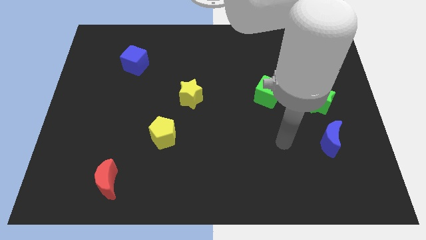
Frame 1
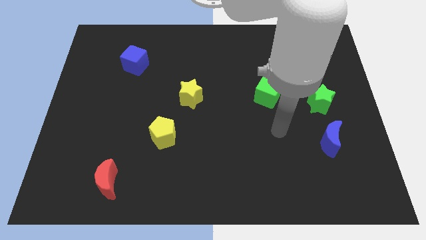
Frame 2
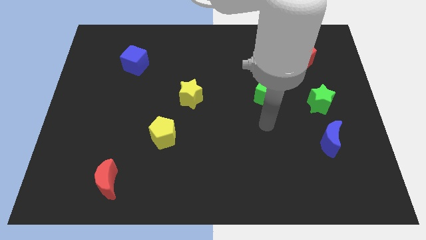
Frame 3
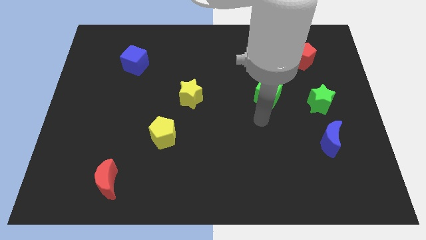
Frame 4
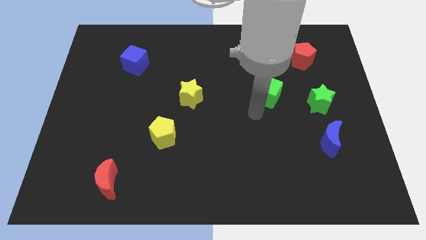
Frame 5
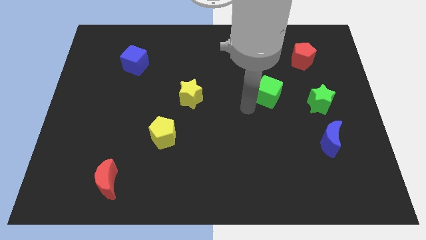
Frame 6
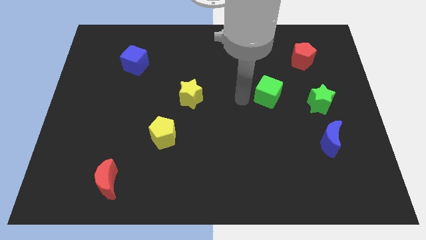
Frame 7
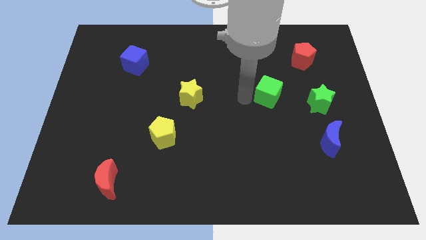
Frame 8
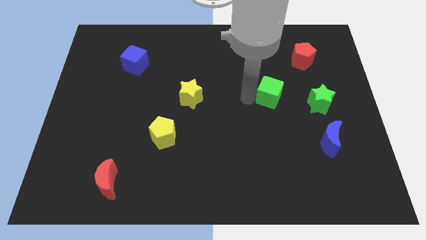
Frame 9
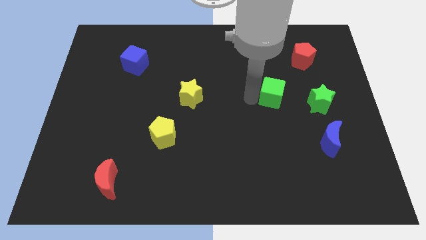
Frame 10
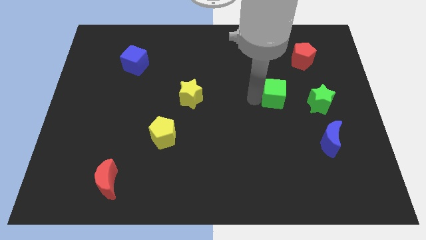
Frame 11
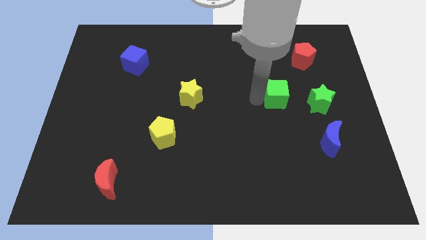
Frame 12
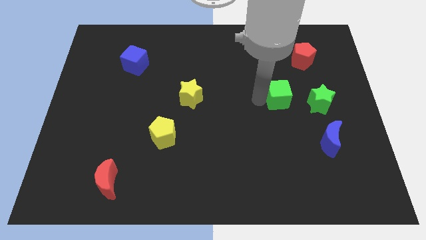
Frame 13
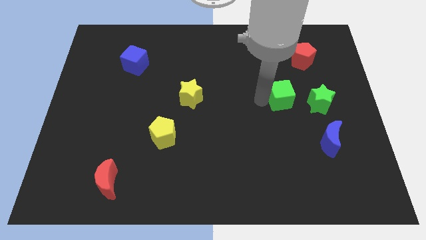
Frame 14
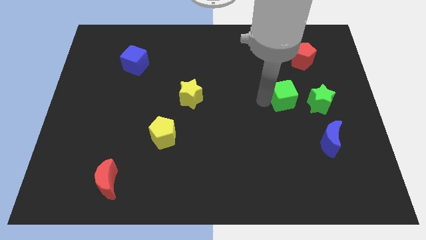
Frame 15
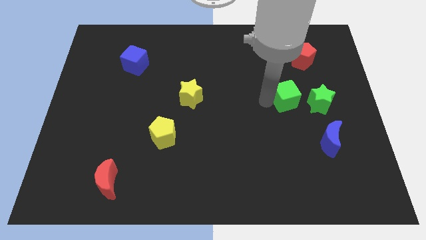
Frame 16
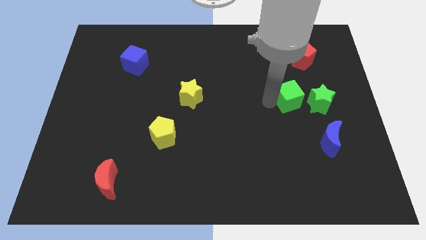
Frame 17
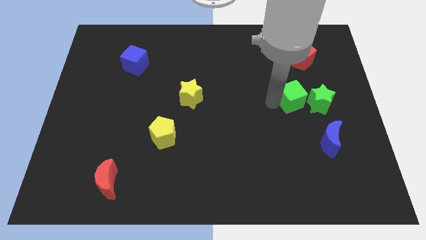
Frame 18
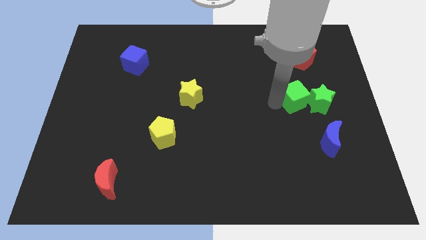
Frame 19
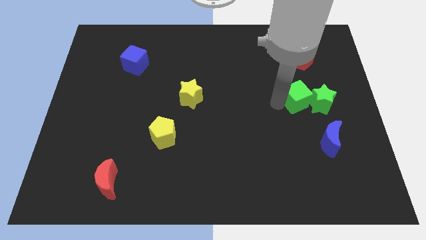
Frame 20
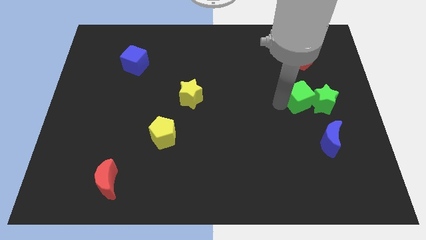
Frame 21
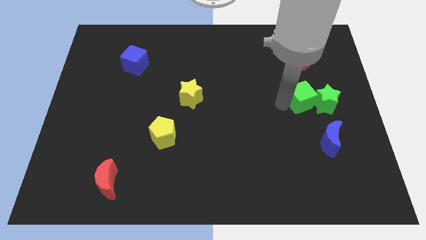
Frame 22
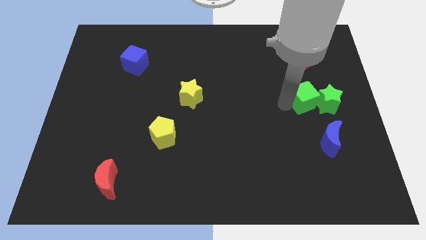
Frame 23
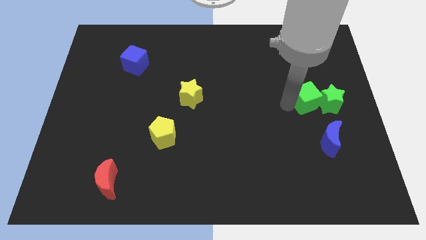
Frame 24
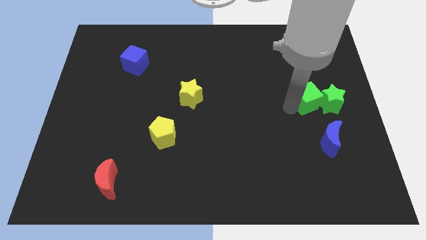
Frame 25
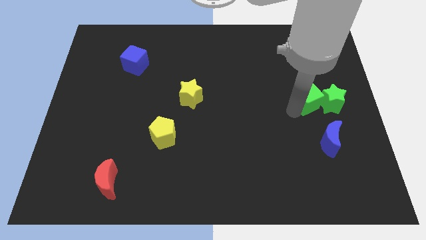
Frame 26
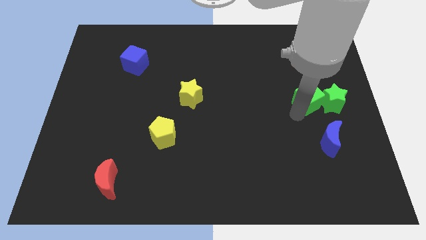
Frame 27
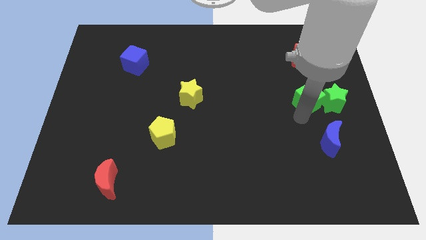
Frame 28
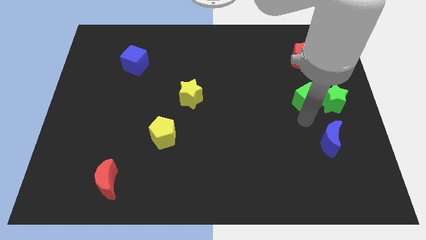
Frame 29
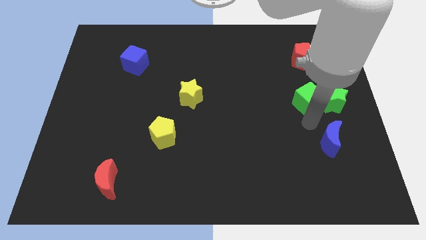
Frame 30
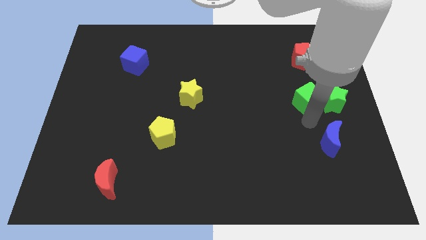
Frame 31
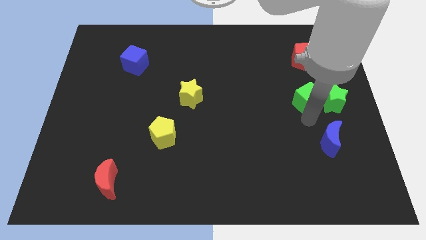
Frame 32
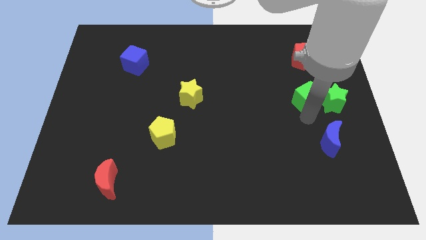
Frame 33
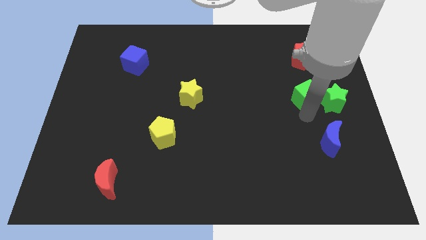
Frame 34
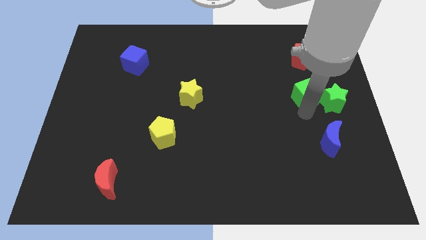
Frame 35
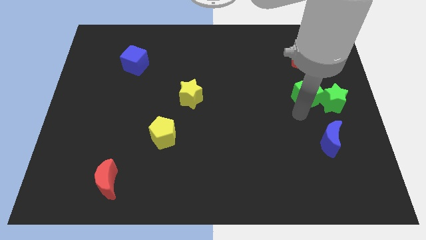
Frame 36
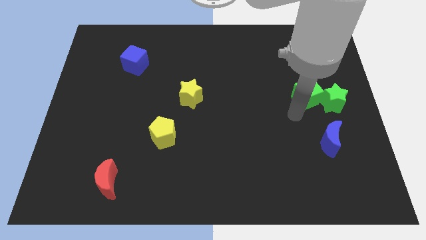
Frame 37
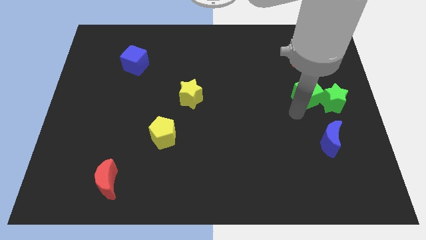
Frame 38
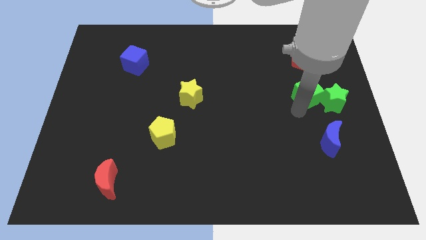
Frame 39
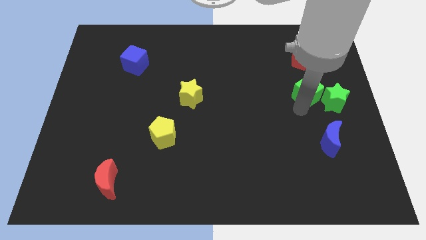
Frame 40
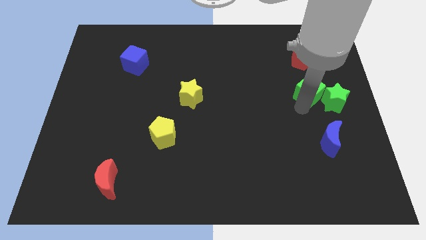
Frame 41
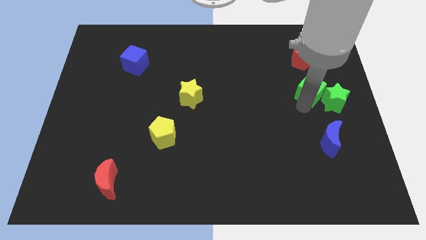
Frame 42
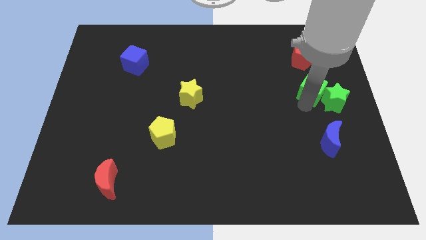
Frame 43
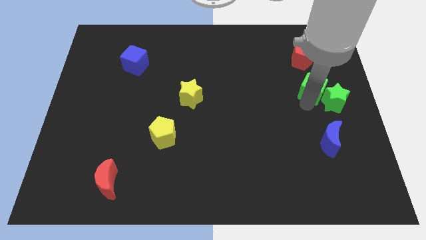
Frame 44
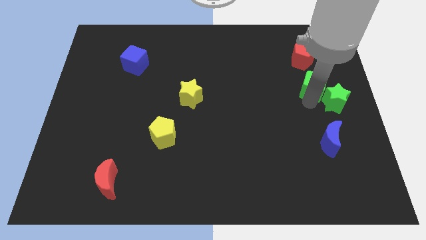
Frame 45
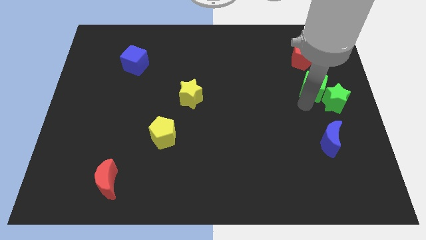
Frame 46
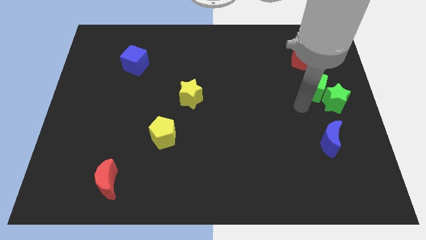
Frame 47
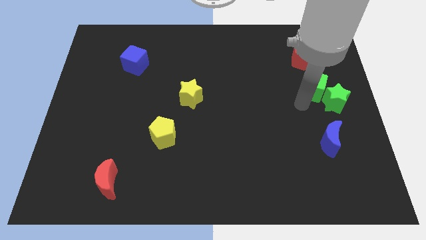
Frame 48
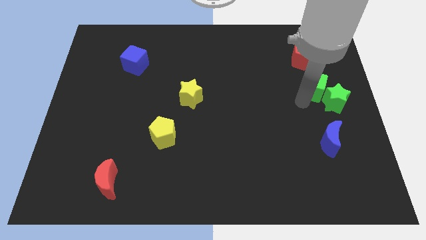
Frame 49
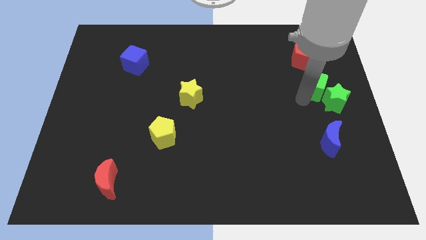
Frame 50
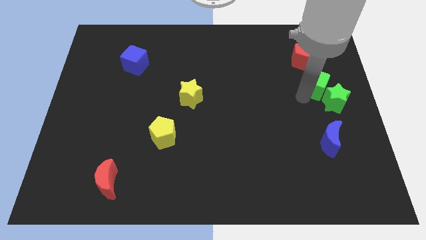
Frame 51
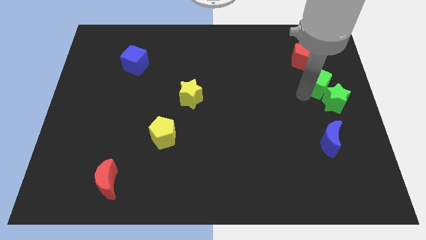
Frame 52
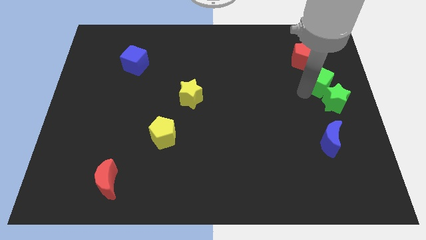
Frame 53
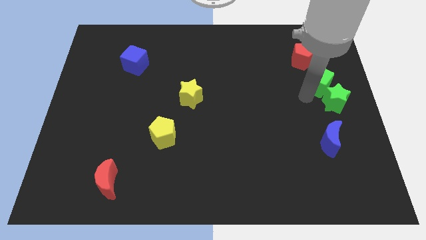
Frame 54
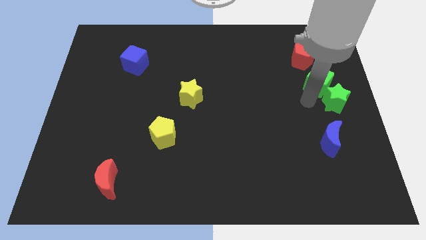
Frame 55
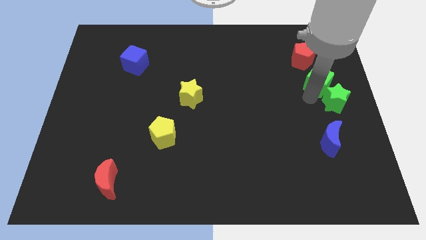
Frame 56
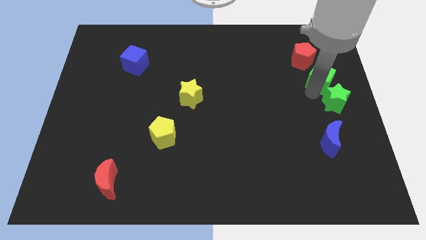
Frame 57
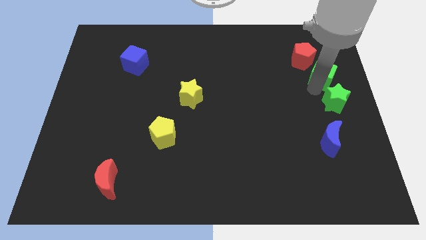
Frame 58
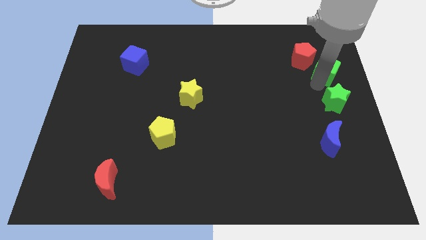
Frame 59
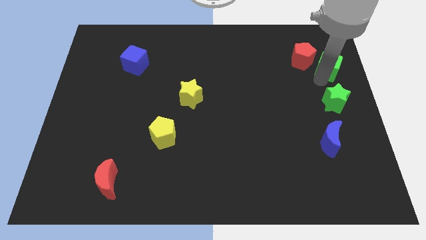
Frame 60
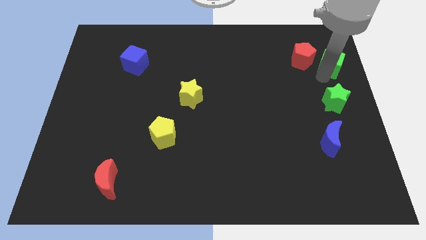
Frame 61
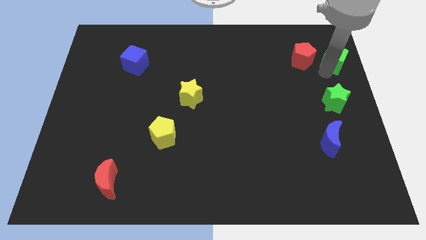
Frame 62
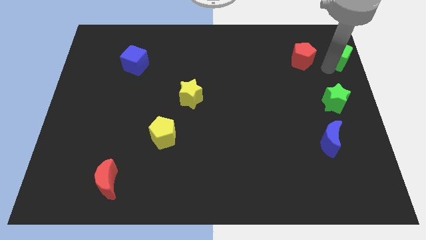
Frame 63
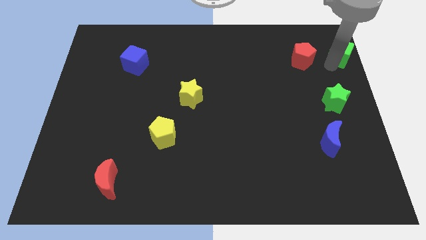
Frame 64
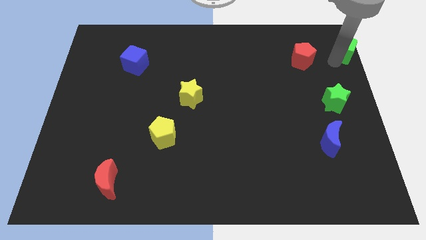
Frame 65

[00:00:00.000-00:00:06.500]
put the green cube to the top right corner

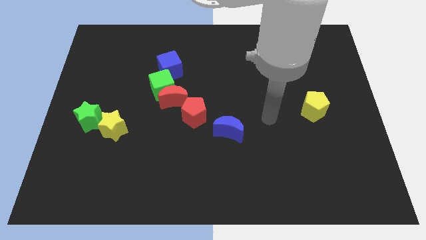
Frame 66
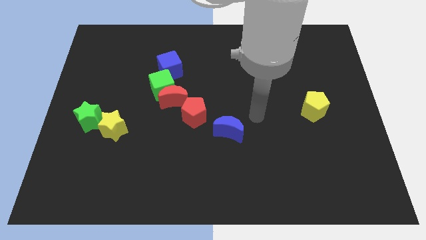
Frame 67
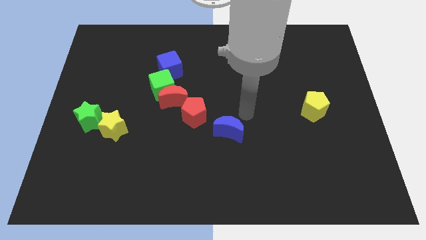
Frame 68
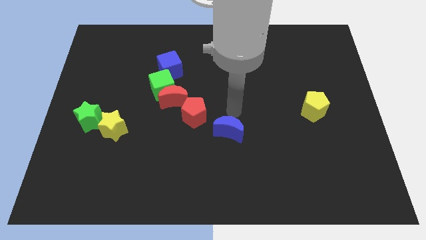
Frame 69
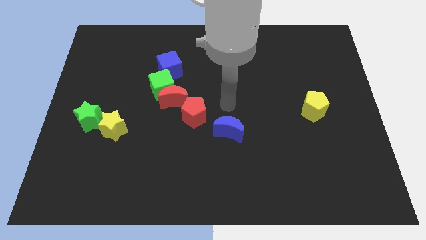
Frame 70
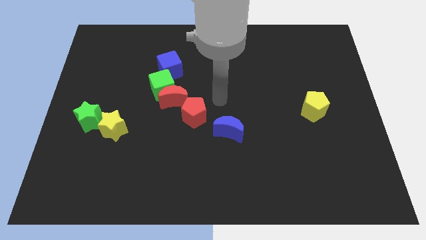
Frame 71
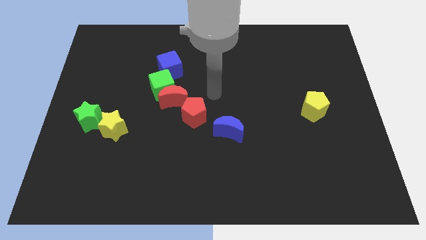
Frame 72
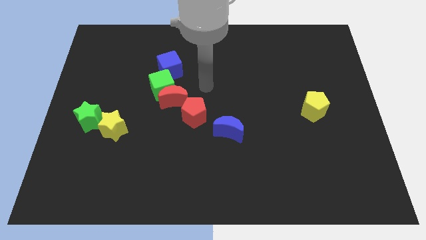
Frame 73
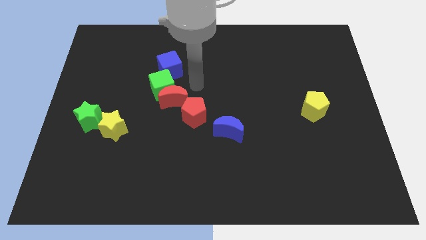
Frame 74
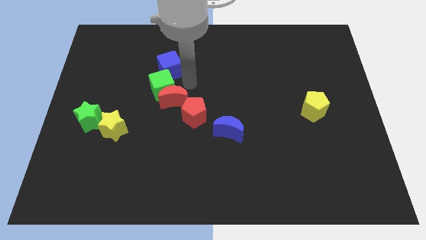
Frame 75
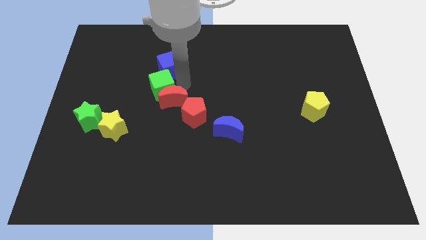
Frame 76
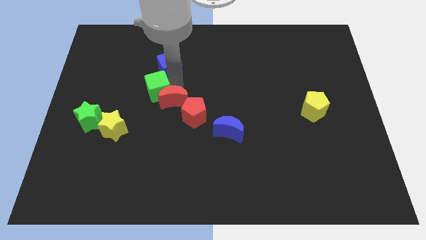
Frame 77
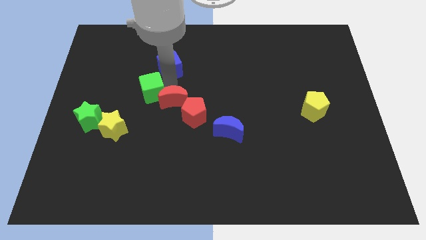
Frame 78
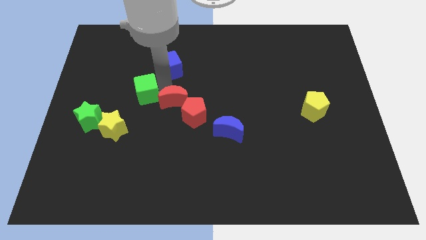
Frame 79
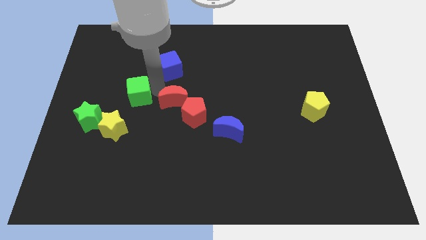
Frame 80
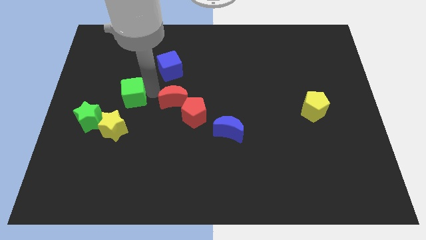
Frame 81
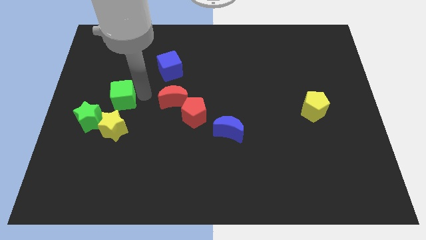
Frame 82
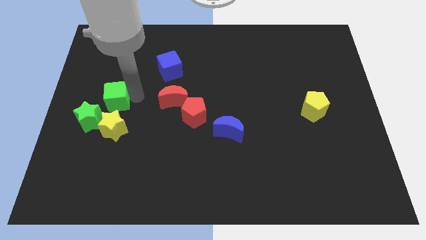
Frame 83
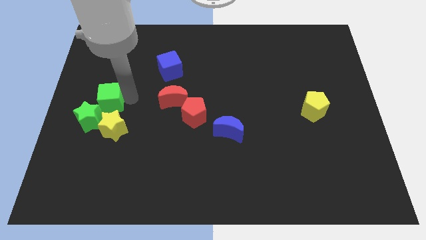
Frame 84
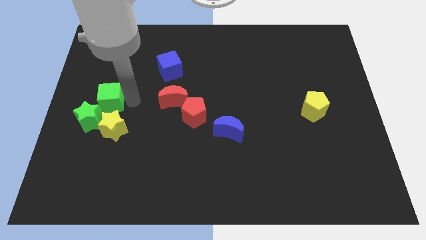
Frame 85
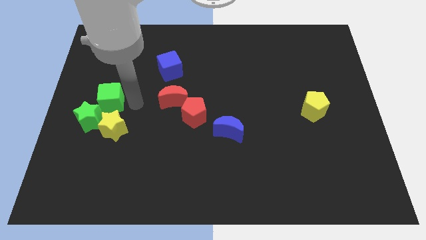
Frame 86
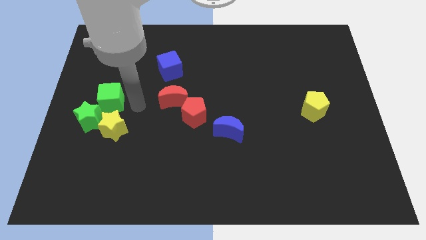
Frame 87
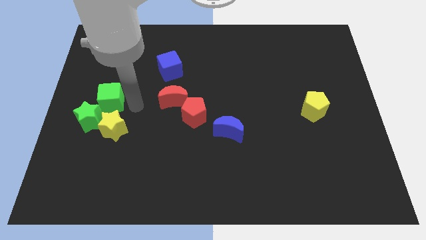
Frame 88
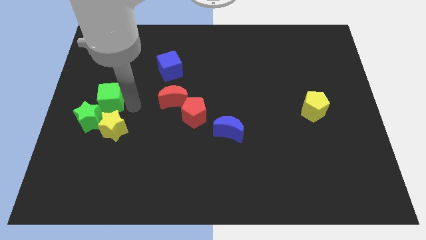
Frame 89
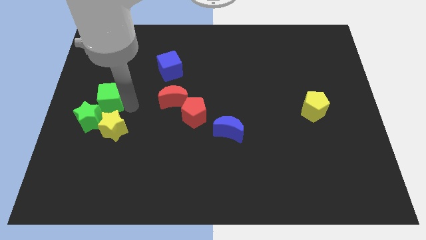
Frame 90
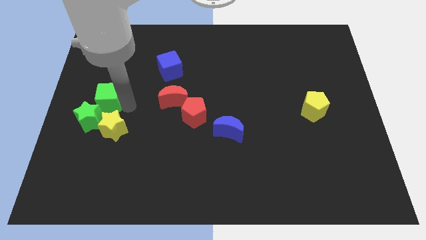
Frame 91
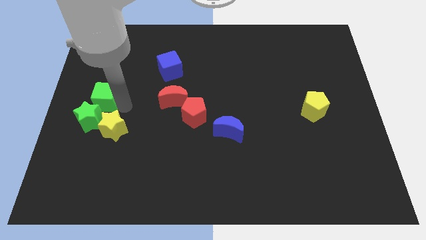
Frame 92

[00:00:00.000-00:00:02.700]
move the green cube to the left side of the board
